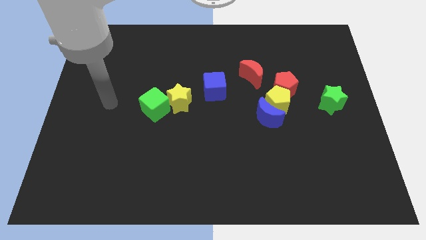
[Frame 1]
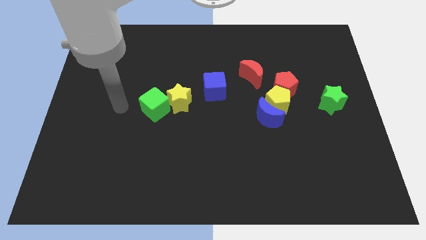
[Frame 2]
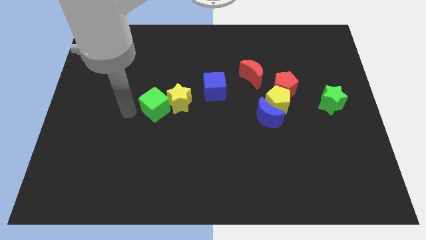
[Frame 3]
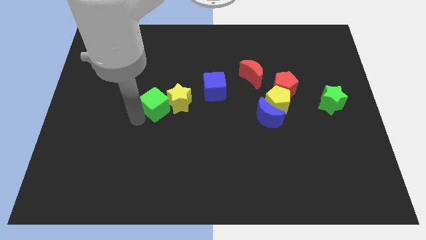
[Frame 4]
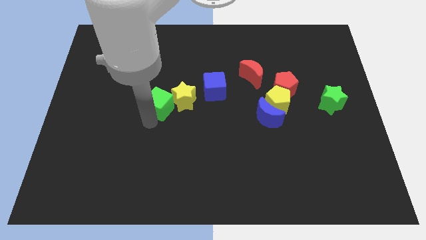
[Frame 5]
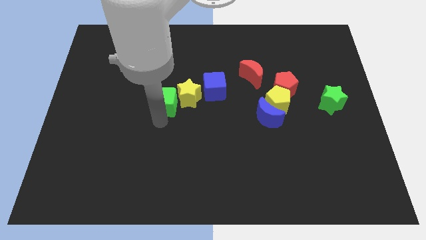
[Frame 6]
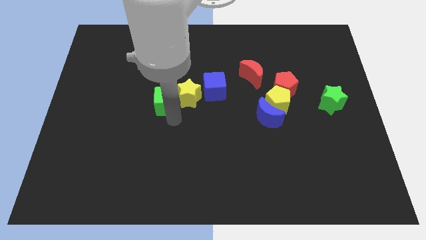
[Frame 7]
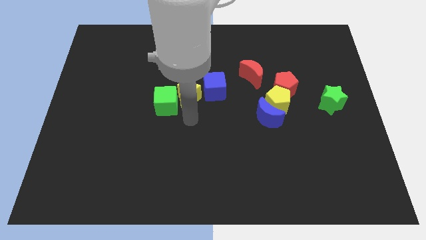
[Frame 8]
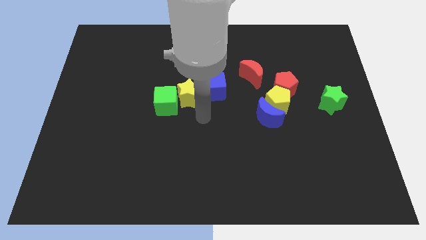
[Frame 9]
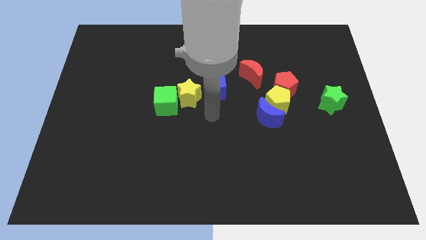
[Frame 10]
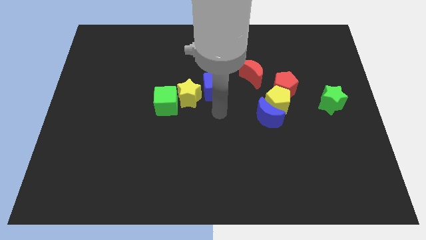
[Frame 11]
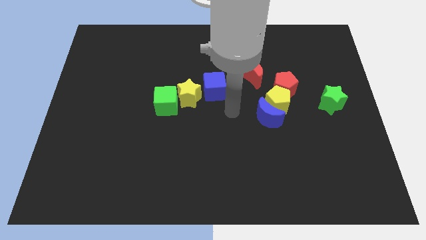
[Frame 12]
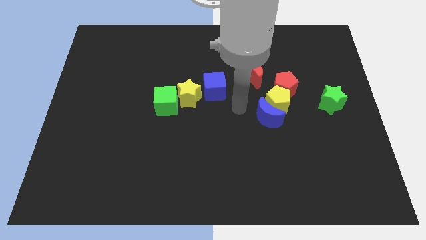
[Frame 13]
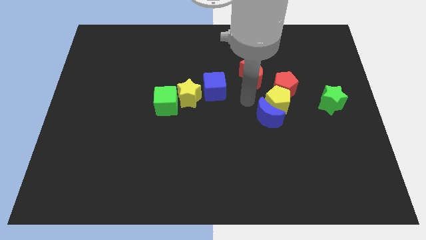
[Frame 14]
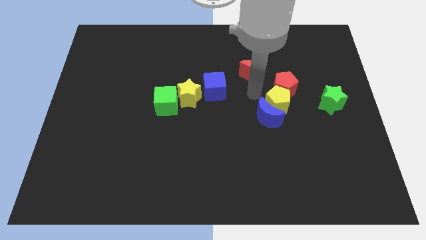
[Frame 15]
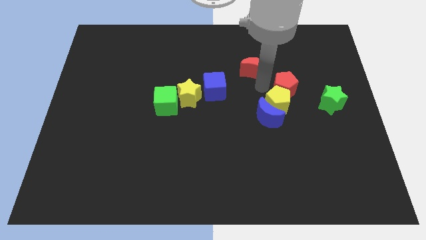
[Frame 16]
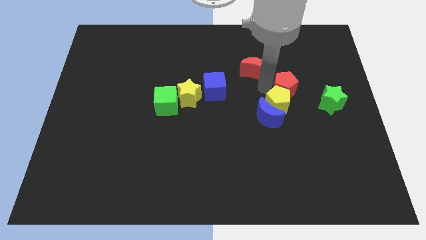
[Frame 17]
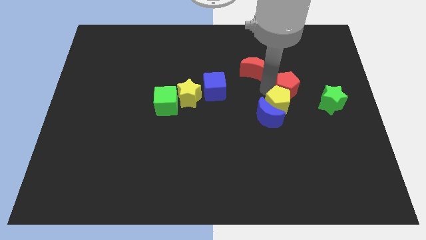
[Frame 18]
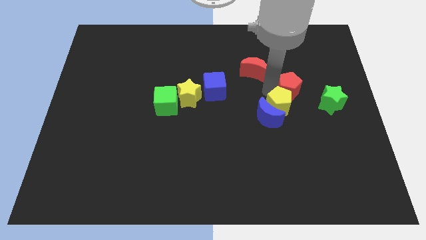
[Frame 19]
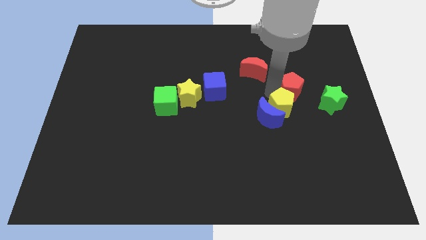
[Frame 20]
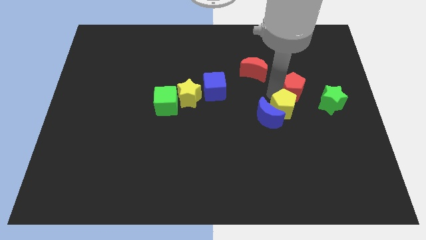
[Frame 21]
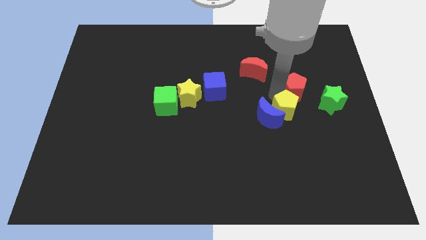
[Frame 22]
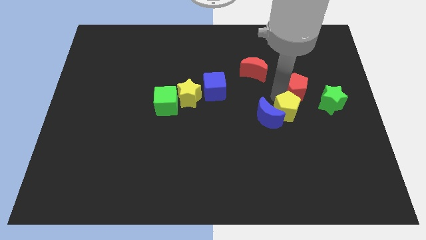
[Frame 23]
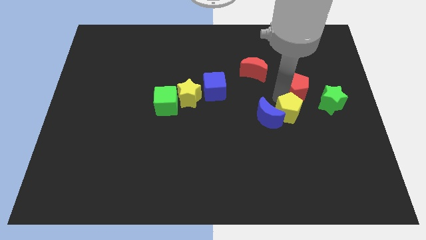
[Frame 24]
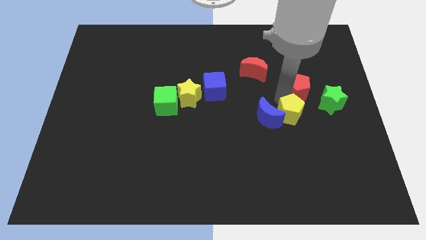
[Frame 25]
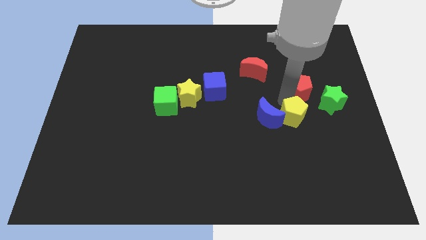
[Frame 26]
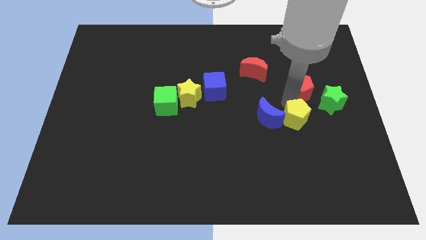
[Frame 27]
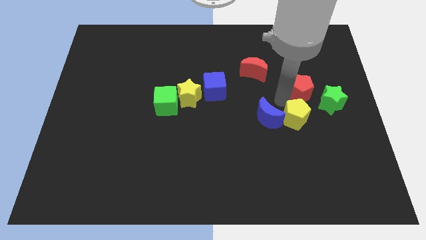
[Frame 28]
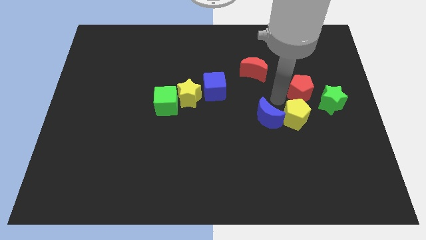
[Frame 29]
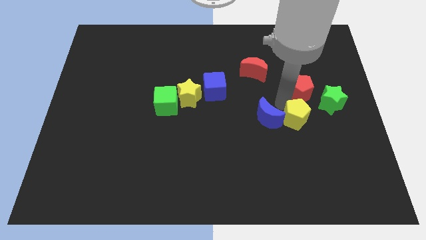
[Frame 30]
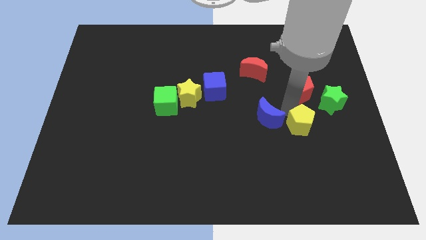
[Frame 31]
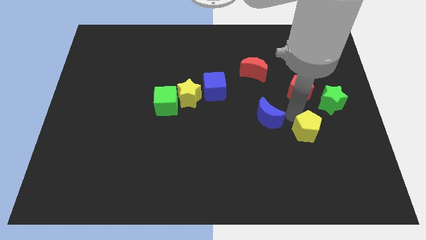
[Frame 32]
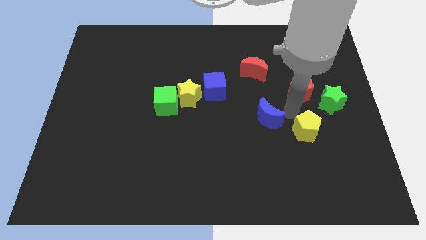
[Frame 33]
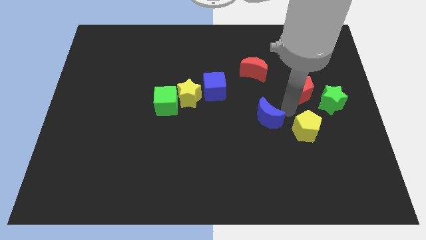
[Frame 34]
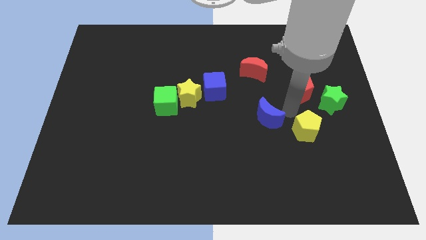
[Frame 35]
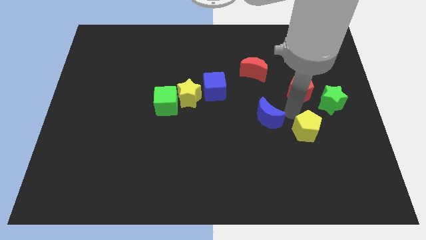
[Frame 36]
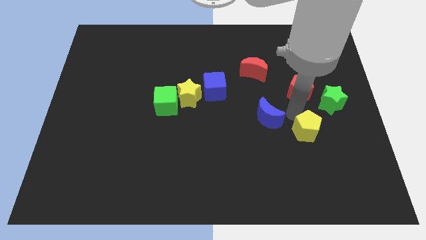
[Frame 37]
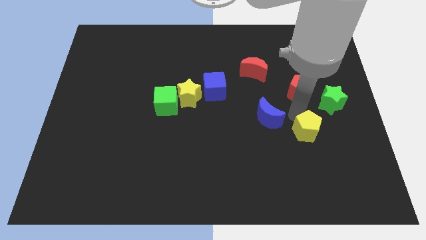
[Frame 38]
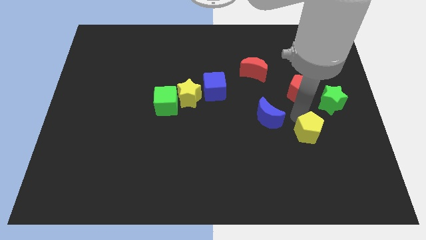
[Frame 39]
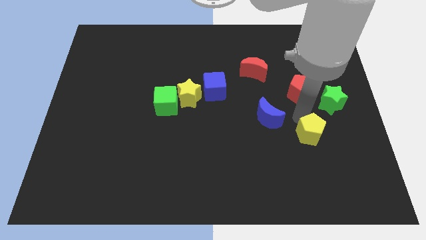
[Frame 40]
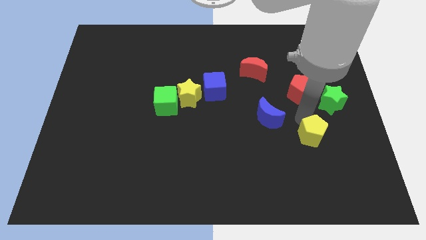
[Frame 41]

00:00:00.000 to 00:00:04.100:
separate the yellow pentagon from the blue moon and red pentagon

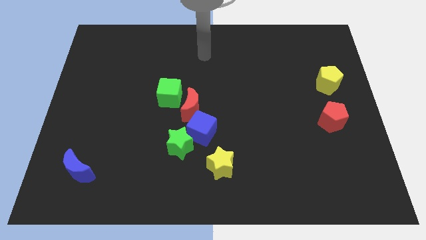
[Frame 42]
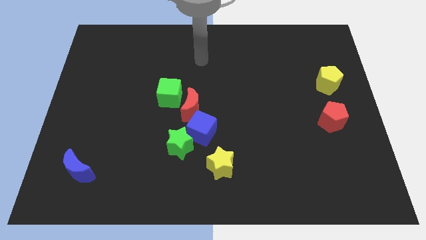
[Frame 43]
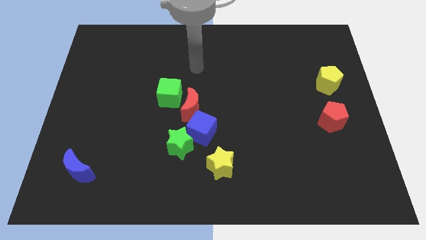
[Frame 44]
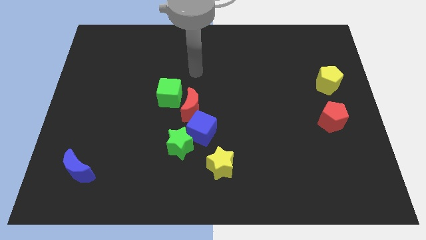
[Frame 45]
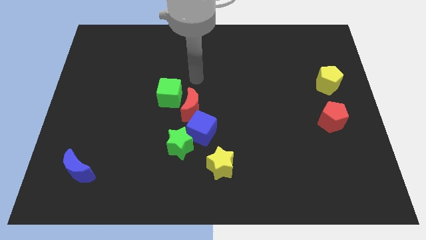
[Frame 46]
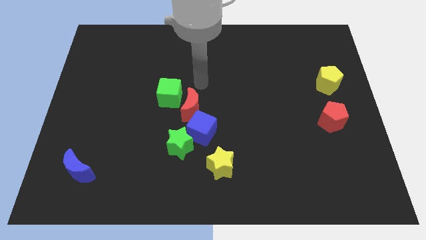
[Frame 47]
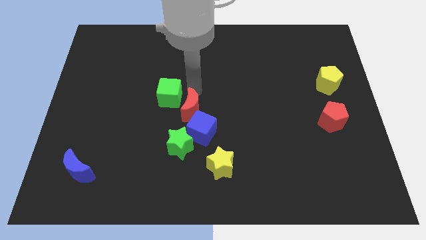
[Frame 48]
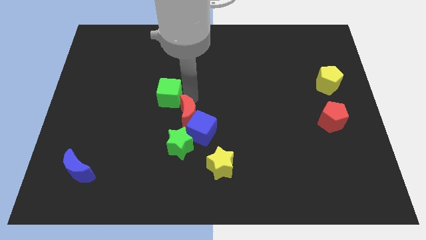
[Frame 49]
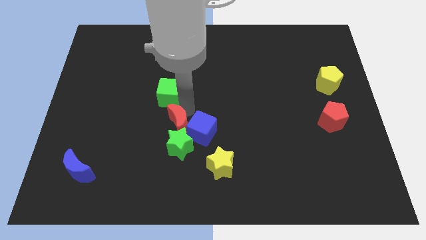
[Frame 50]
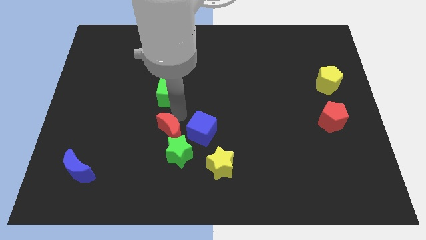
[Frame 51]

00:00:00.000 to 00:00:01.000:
separate the green cube from the red moon

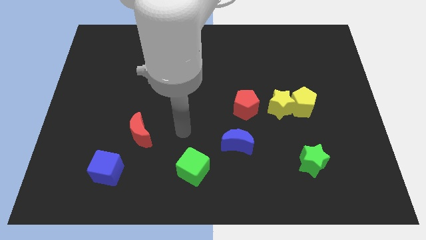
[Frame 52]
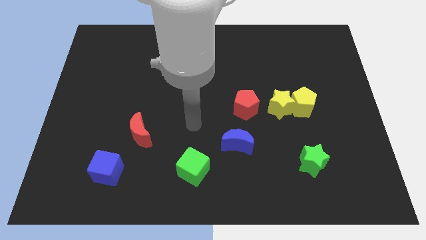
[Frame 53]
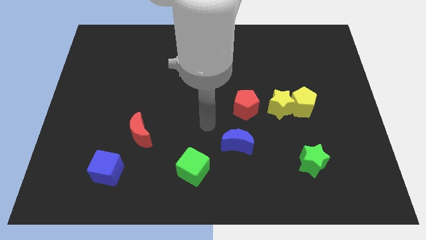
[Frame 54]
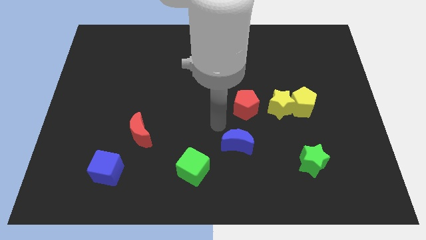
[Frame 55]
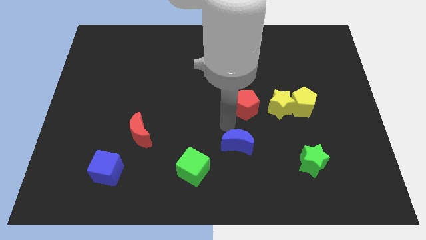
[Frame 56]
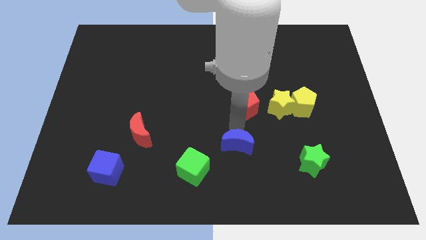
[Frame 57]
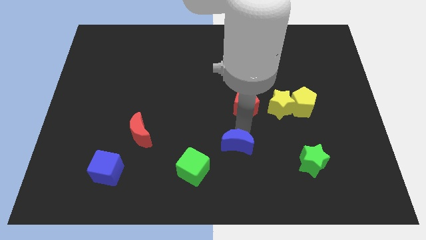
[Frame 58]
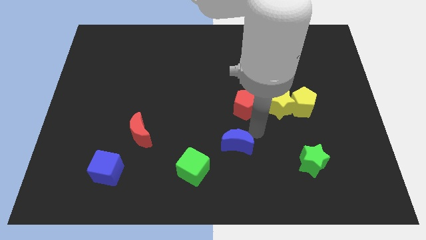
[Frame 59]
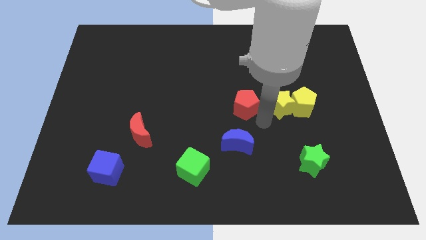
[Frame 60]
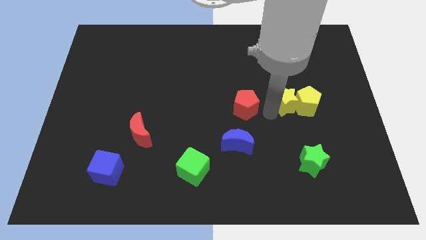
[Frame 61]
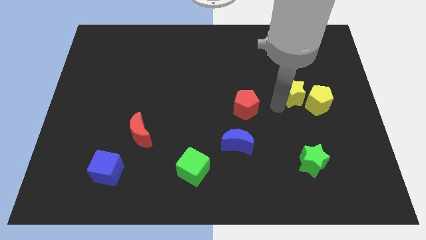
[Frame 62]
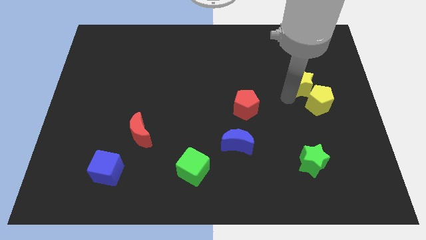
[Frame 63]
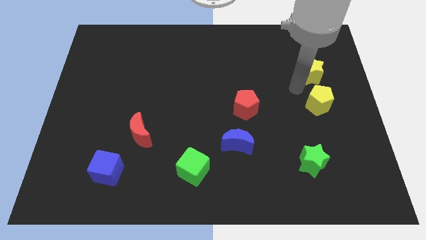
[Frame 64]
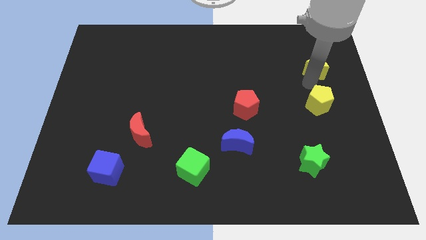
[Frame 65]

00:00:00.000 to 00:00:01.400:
move the yellow pentagon away from the yellow star

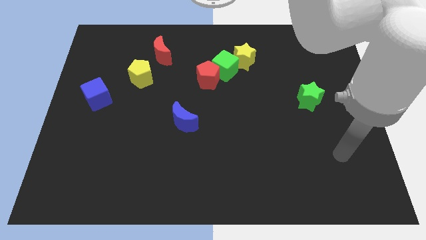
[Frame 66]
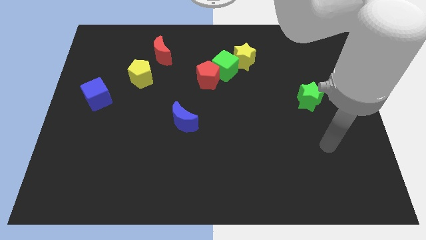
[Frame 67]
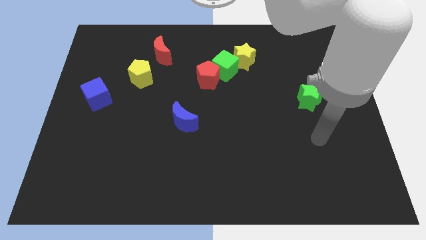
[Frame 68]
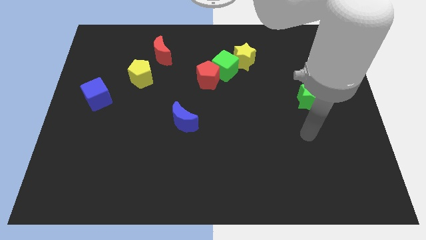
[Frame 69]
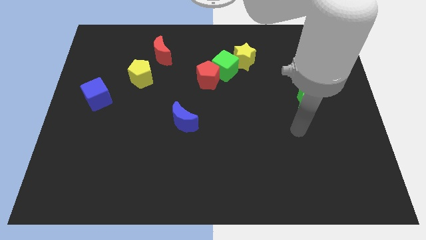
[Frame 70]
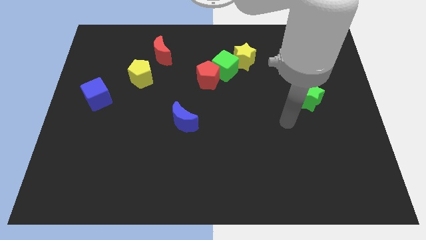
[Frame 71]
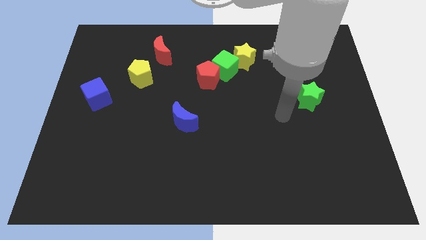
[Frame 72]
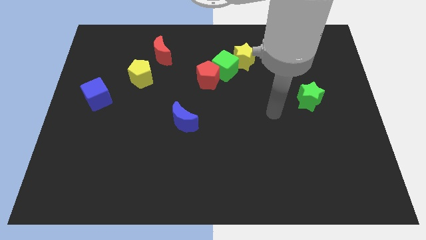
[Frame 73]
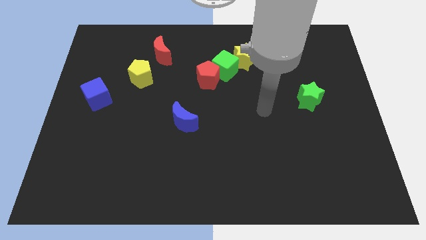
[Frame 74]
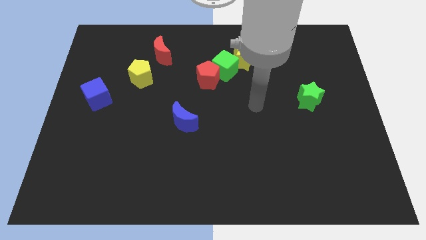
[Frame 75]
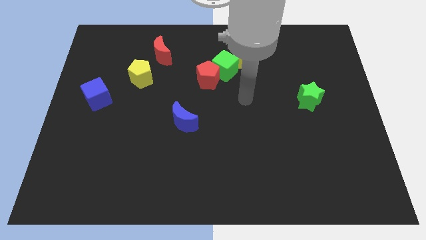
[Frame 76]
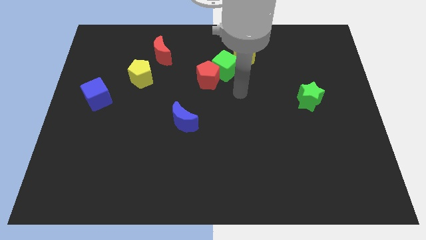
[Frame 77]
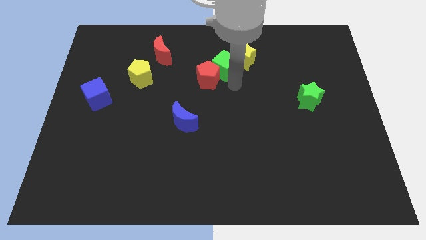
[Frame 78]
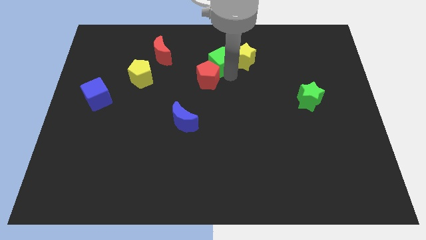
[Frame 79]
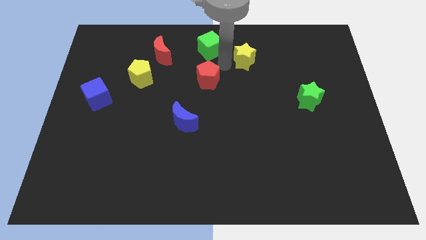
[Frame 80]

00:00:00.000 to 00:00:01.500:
pull the red pentagon apart from the green cube

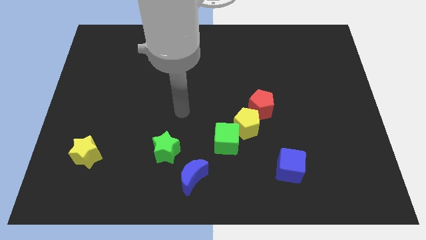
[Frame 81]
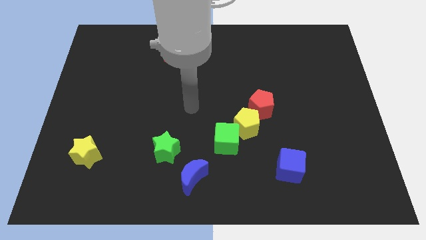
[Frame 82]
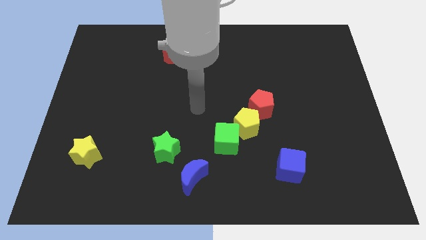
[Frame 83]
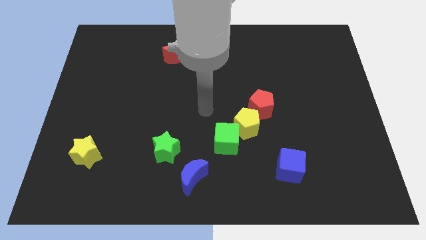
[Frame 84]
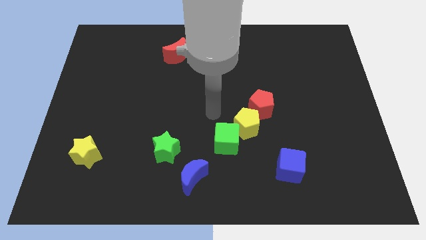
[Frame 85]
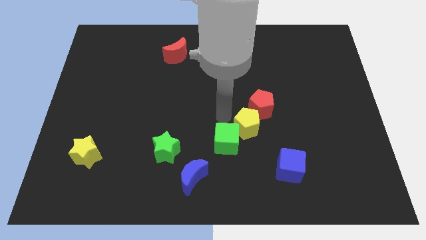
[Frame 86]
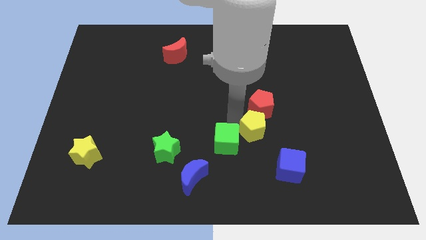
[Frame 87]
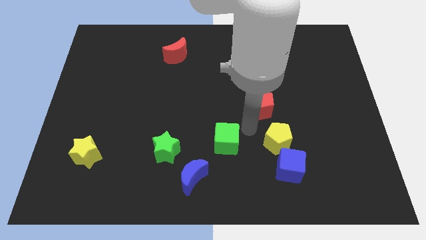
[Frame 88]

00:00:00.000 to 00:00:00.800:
separate the green cube from the yellow pentagon

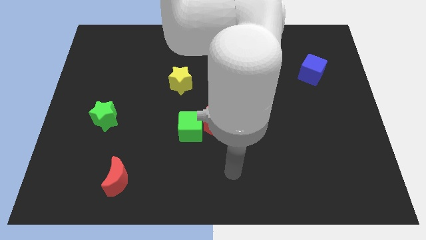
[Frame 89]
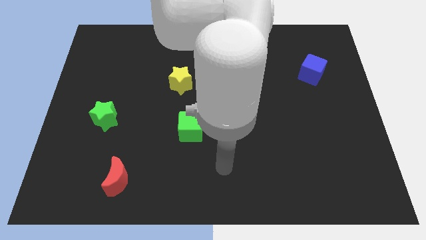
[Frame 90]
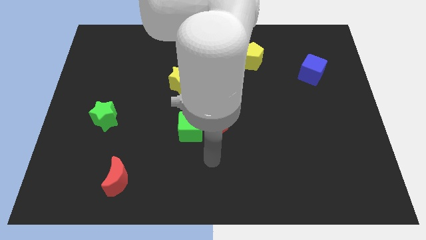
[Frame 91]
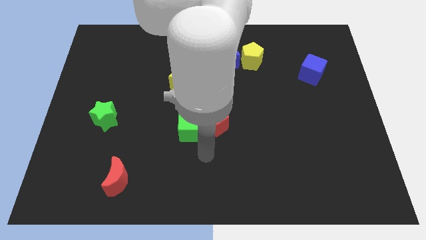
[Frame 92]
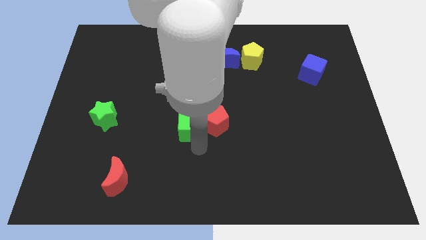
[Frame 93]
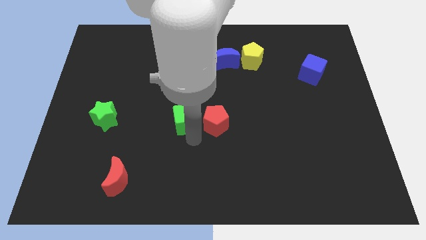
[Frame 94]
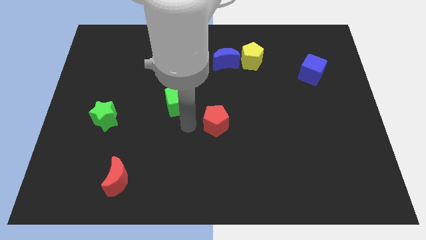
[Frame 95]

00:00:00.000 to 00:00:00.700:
separate the red pentagon from the green cube
